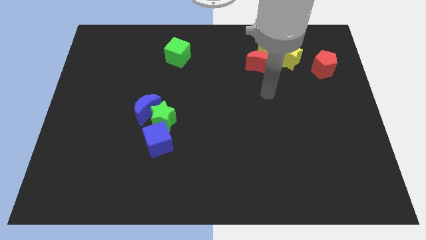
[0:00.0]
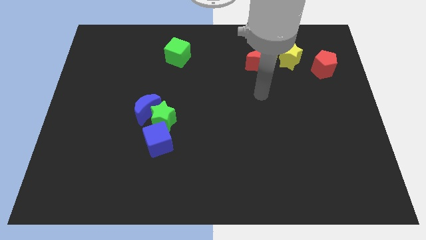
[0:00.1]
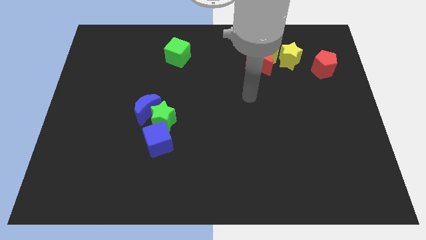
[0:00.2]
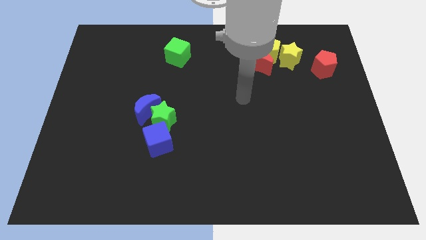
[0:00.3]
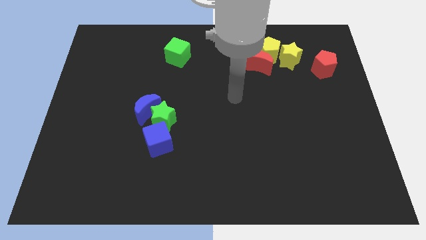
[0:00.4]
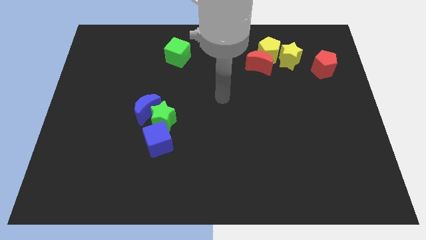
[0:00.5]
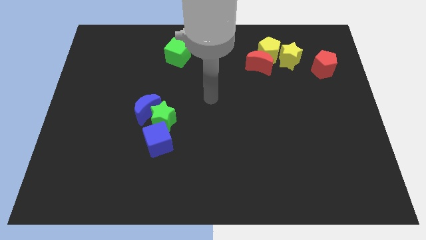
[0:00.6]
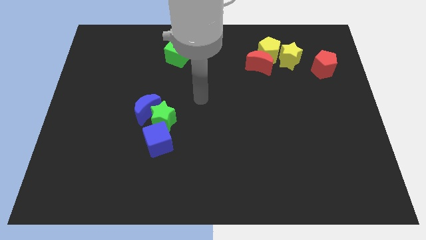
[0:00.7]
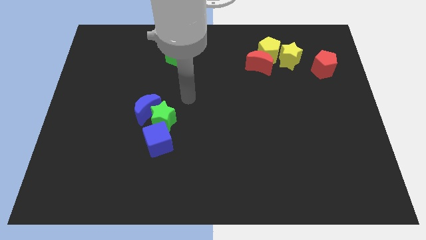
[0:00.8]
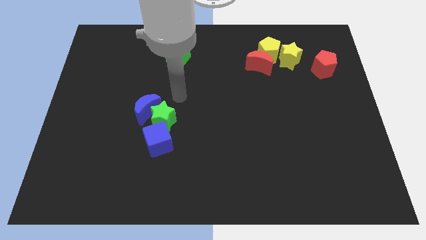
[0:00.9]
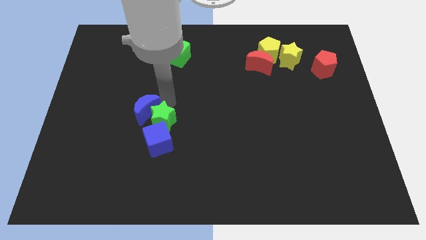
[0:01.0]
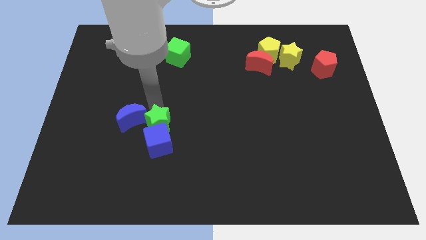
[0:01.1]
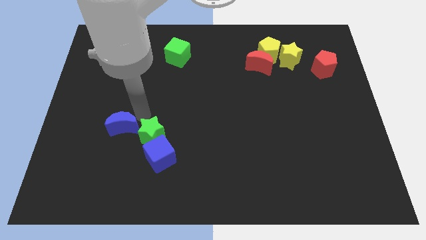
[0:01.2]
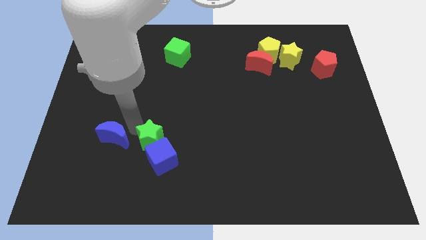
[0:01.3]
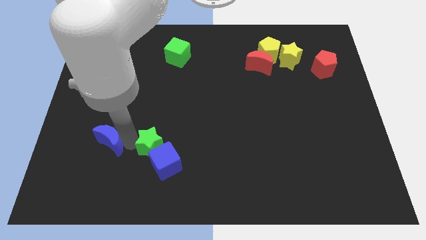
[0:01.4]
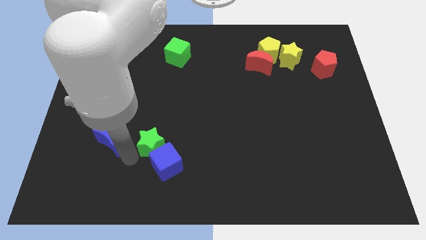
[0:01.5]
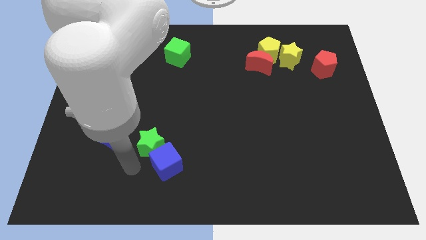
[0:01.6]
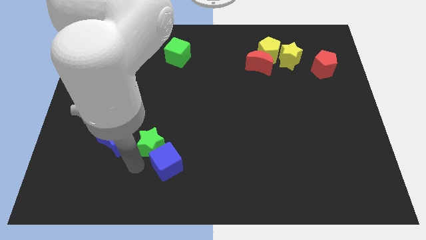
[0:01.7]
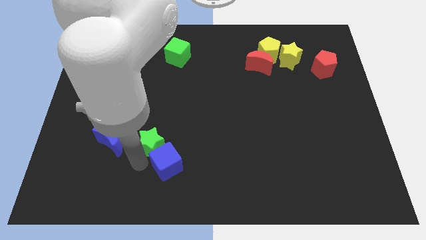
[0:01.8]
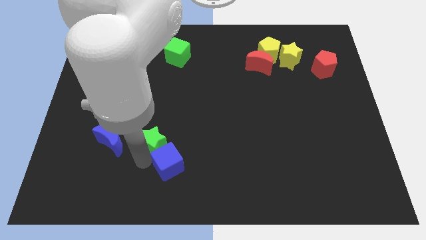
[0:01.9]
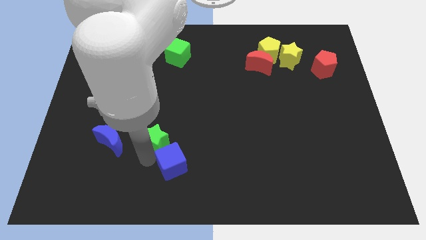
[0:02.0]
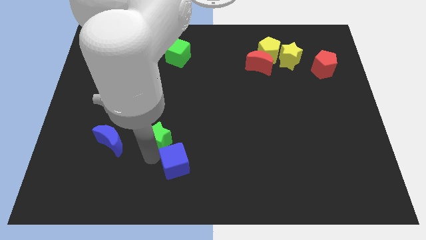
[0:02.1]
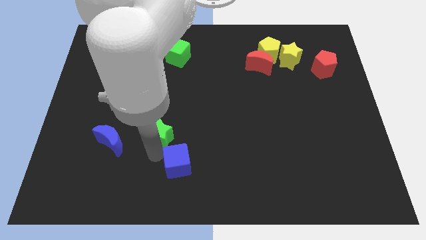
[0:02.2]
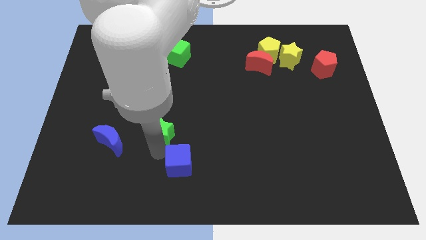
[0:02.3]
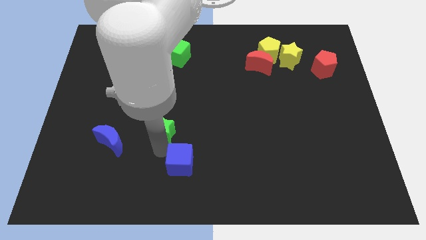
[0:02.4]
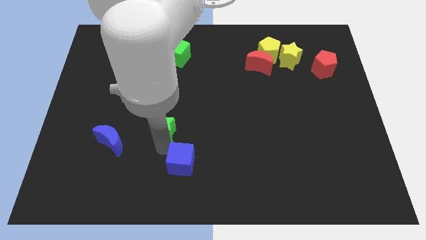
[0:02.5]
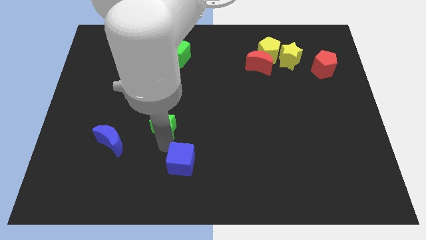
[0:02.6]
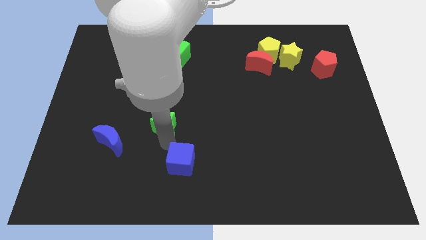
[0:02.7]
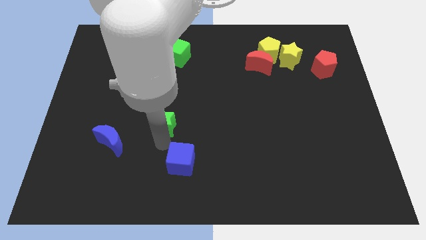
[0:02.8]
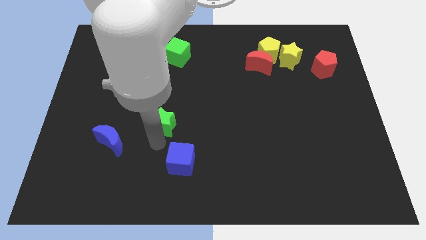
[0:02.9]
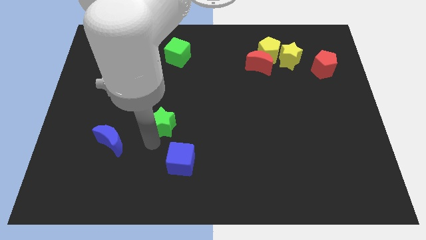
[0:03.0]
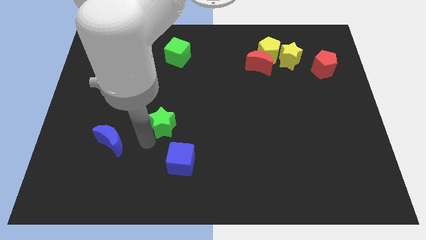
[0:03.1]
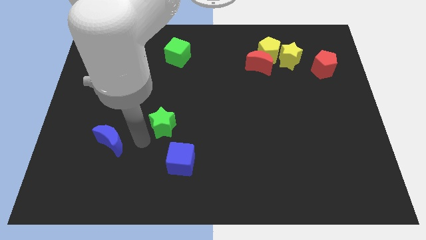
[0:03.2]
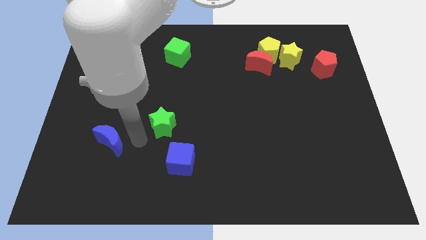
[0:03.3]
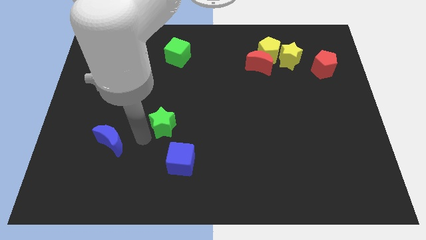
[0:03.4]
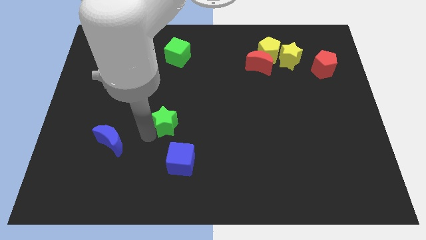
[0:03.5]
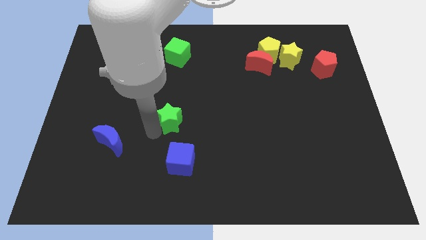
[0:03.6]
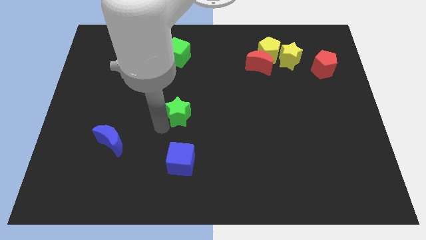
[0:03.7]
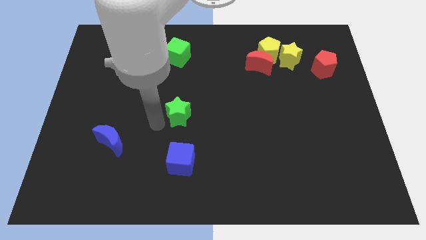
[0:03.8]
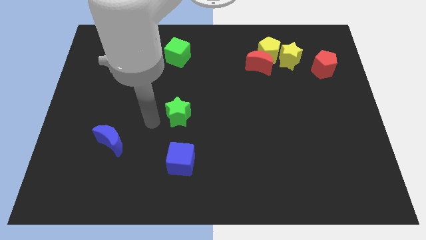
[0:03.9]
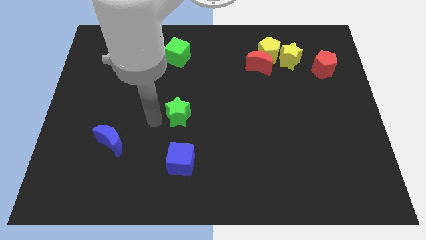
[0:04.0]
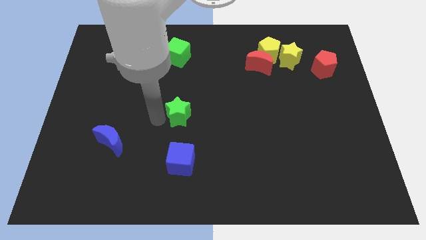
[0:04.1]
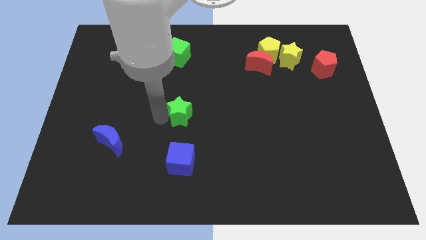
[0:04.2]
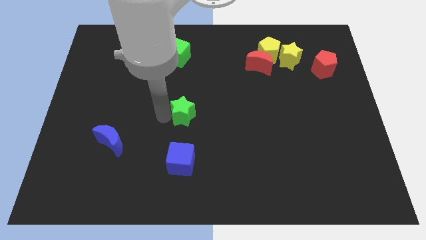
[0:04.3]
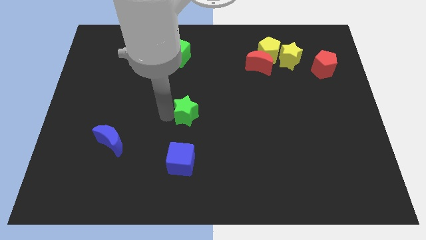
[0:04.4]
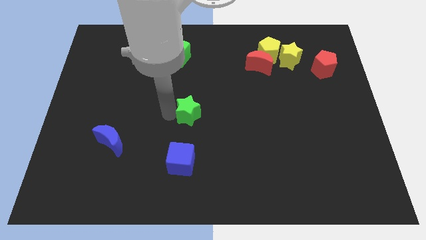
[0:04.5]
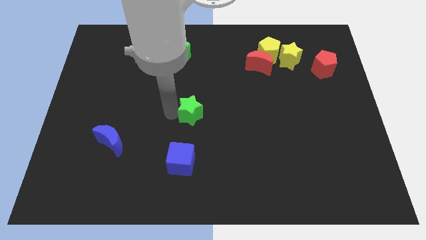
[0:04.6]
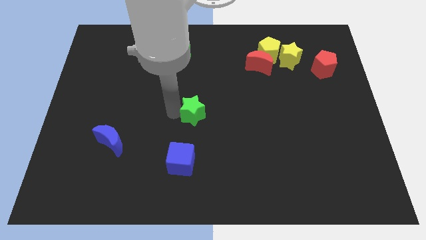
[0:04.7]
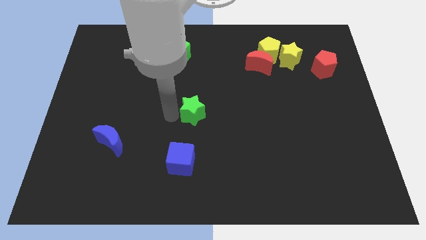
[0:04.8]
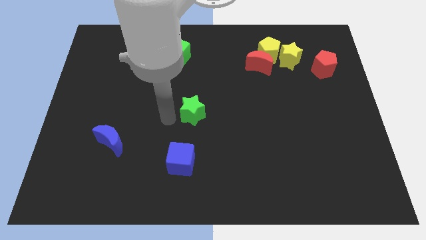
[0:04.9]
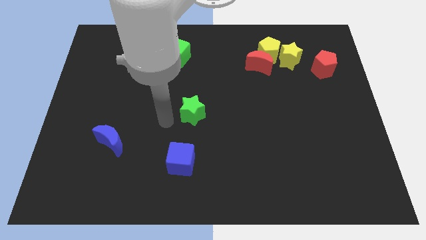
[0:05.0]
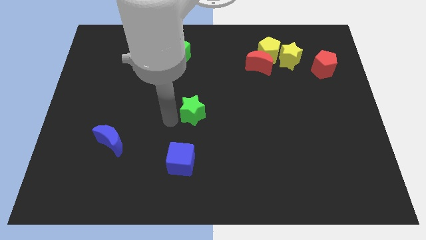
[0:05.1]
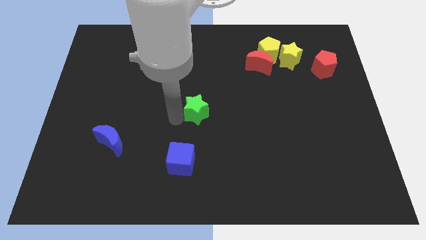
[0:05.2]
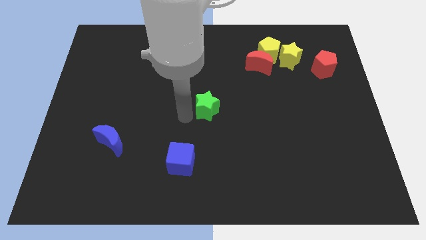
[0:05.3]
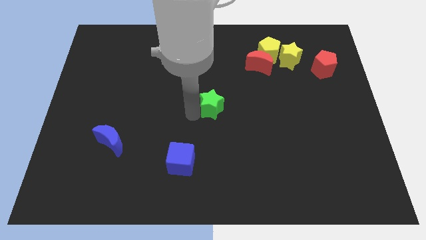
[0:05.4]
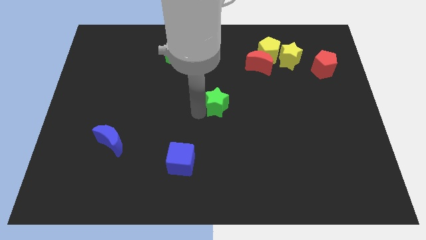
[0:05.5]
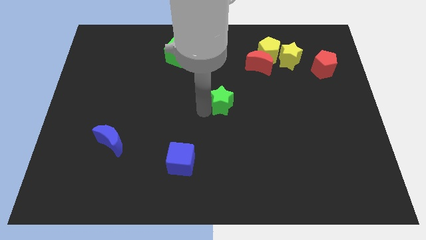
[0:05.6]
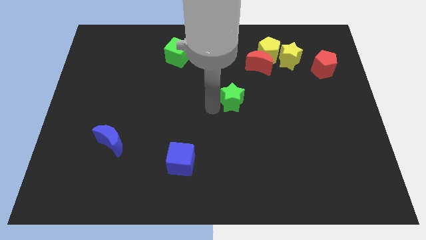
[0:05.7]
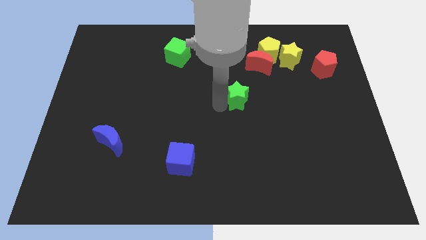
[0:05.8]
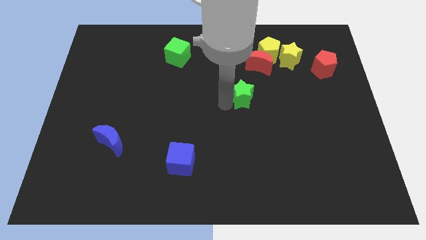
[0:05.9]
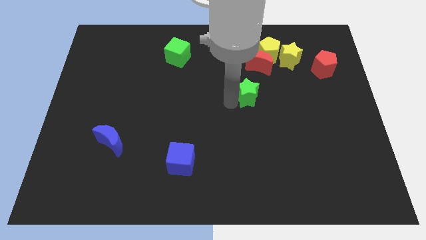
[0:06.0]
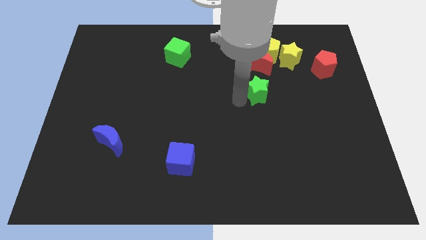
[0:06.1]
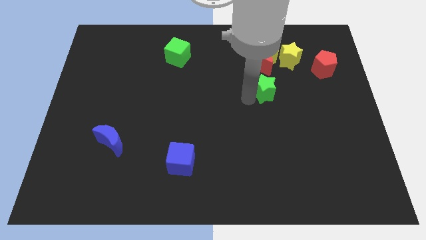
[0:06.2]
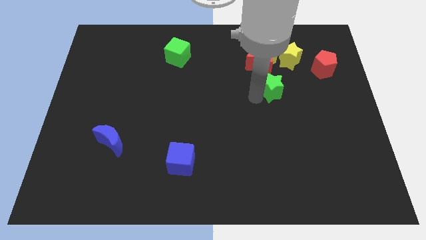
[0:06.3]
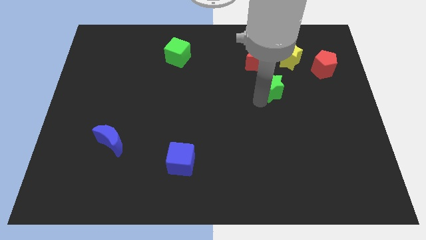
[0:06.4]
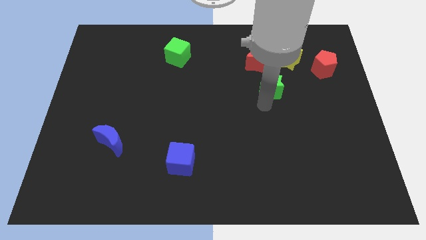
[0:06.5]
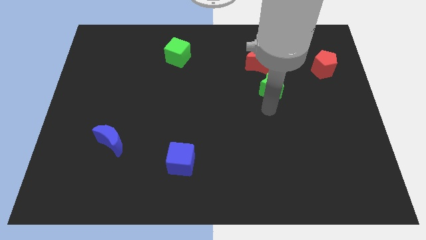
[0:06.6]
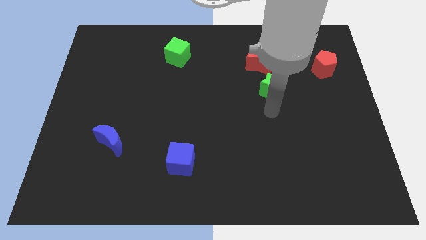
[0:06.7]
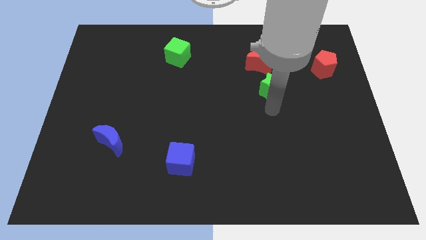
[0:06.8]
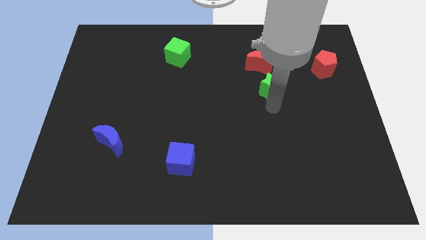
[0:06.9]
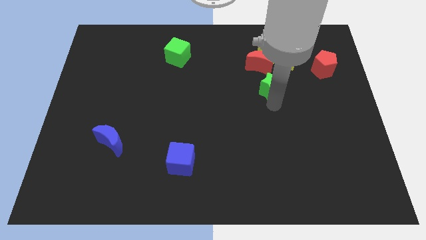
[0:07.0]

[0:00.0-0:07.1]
slide the green star to the bottom left side of the yellow star
